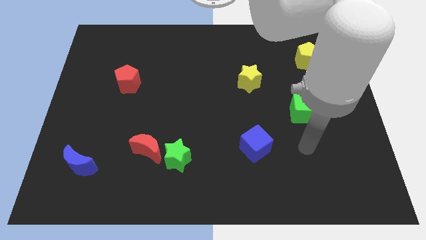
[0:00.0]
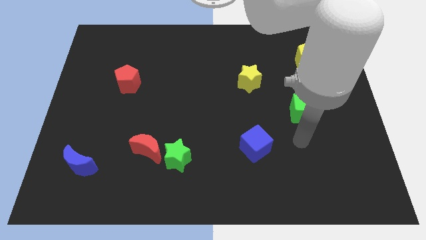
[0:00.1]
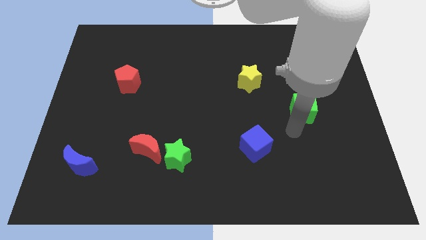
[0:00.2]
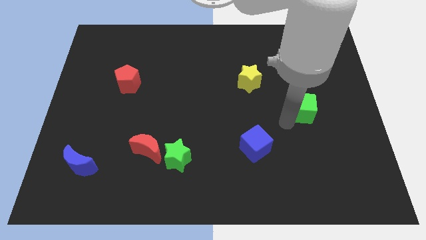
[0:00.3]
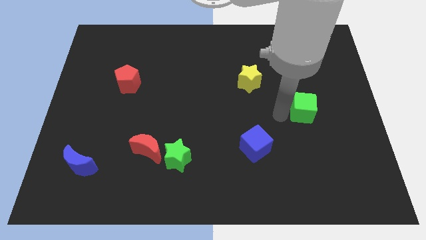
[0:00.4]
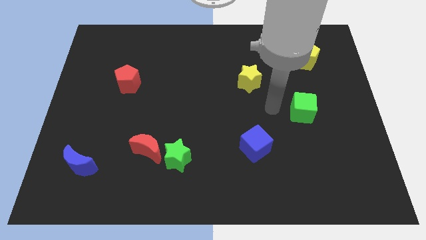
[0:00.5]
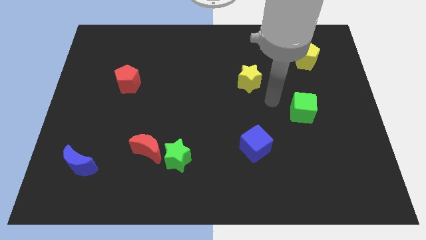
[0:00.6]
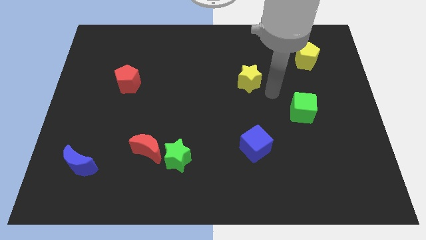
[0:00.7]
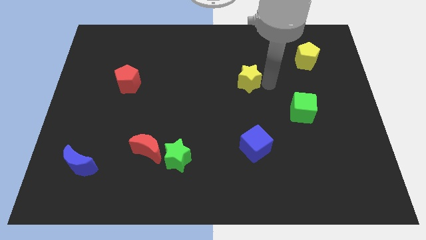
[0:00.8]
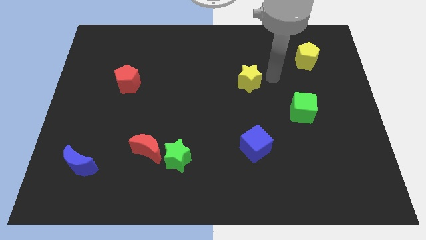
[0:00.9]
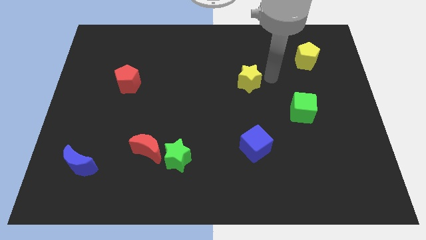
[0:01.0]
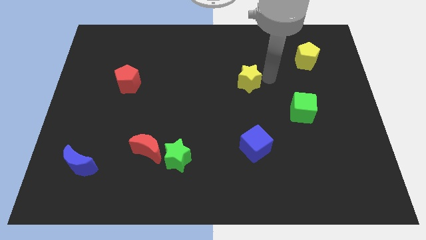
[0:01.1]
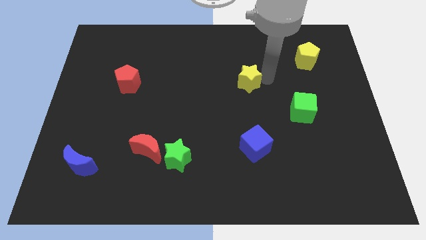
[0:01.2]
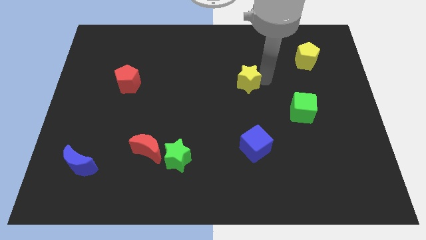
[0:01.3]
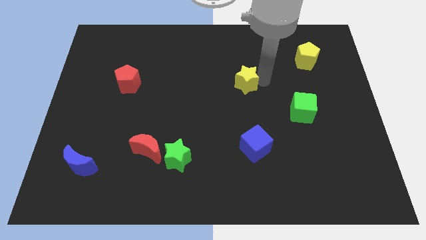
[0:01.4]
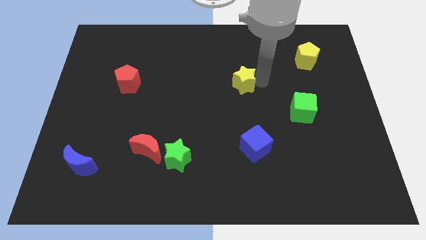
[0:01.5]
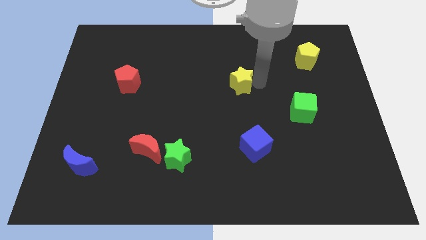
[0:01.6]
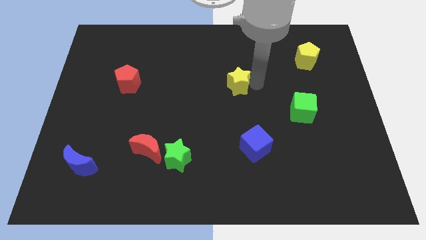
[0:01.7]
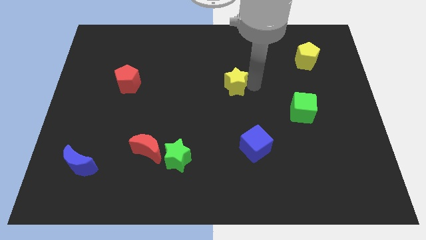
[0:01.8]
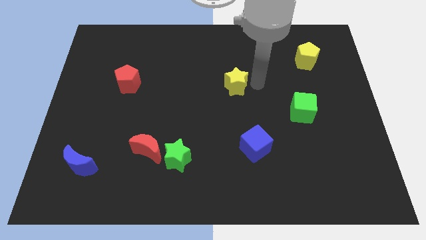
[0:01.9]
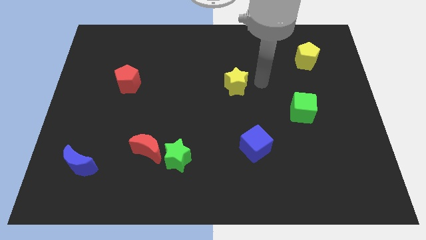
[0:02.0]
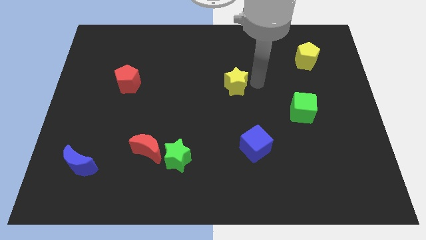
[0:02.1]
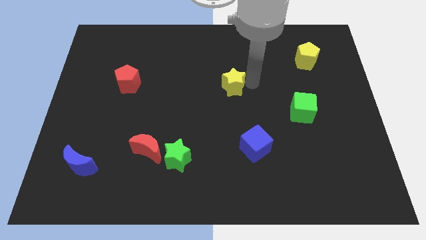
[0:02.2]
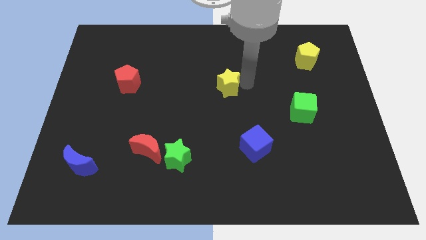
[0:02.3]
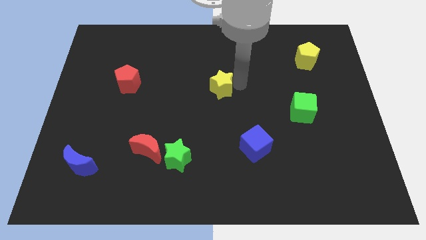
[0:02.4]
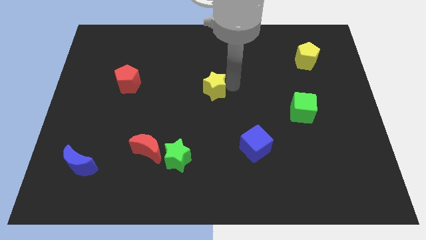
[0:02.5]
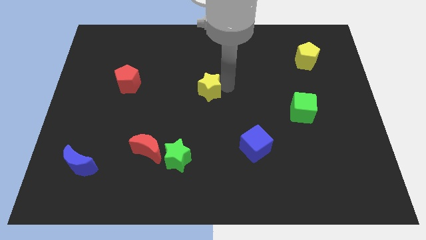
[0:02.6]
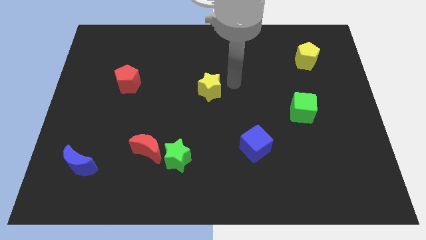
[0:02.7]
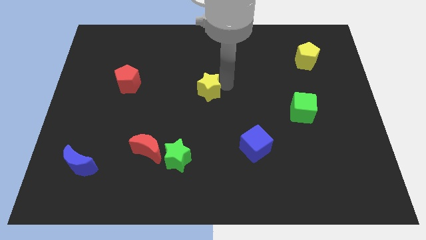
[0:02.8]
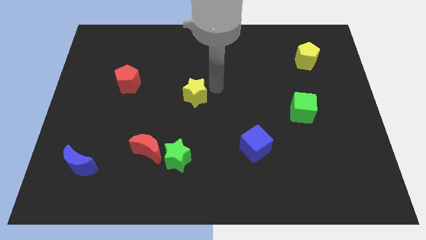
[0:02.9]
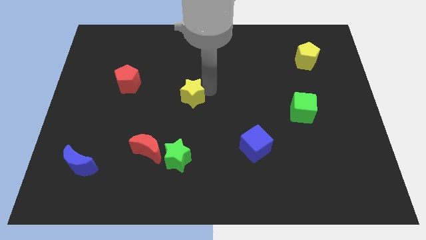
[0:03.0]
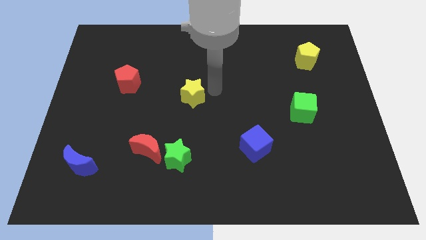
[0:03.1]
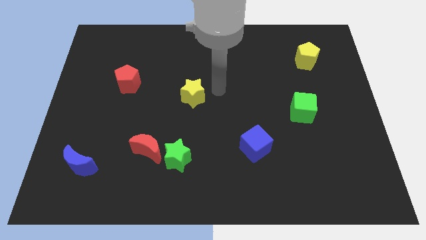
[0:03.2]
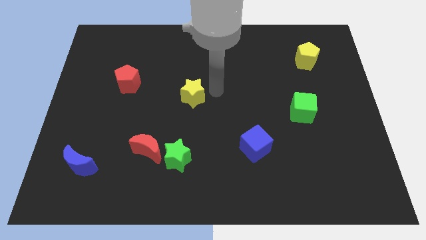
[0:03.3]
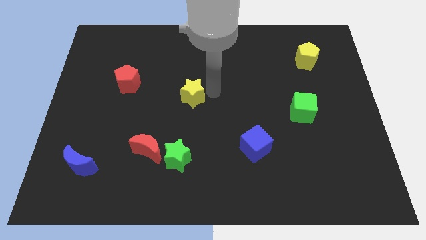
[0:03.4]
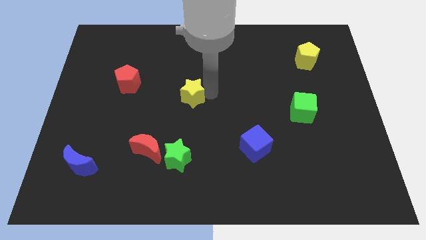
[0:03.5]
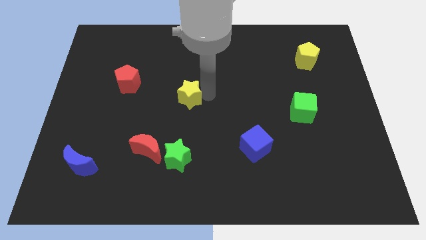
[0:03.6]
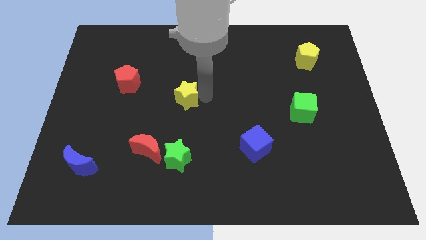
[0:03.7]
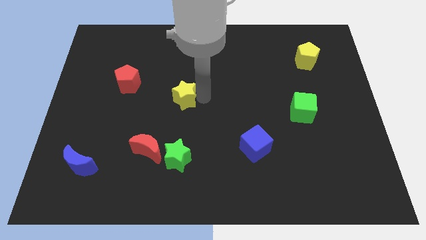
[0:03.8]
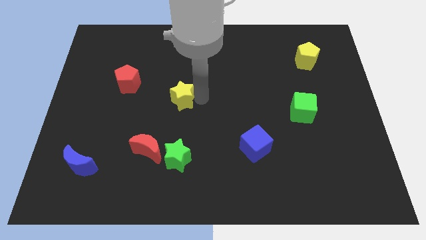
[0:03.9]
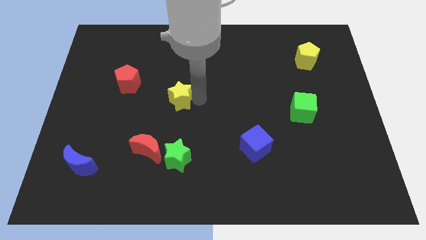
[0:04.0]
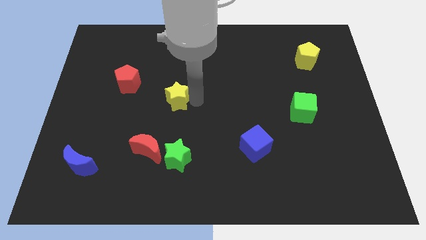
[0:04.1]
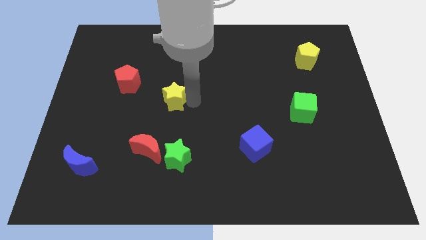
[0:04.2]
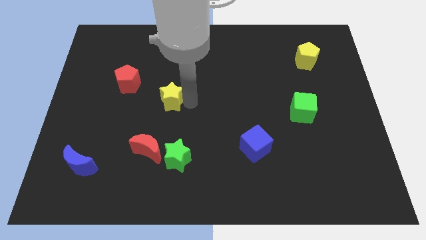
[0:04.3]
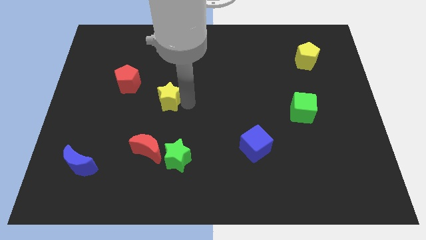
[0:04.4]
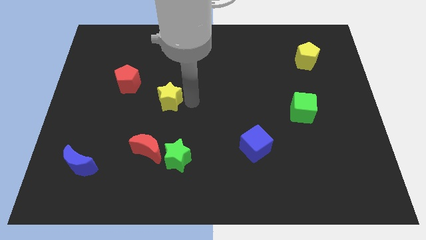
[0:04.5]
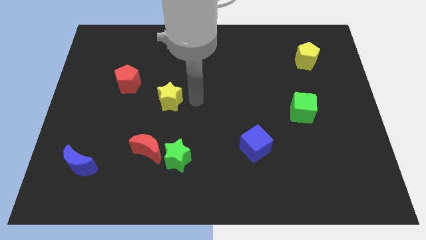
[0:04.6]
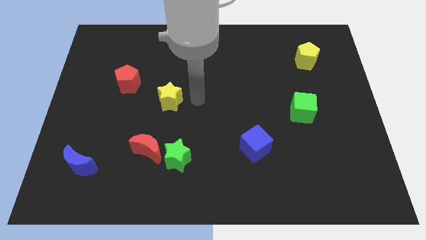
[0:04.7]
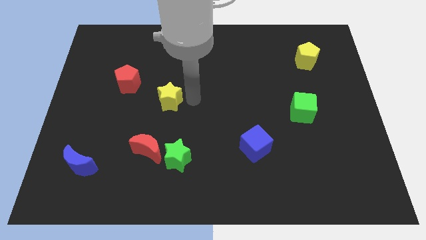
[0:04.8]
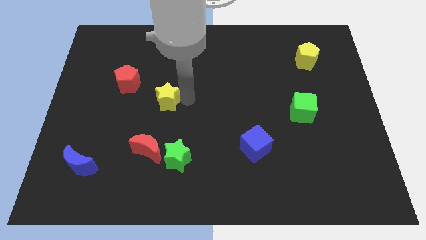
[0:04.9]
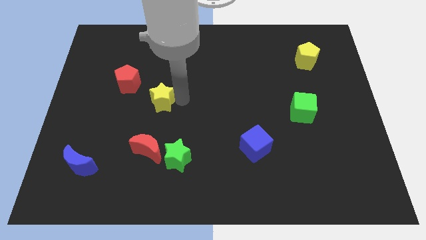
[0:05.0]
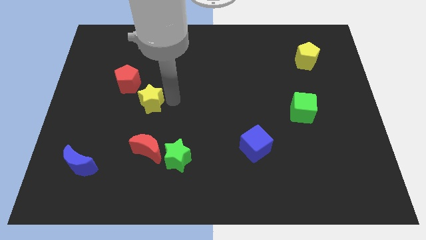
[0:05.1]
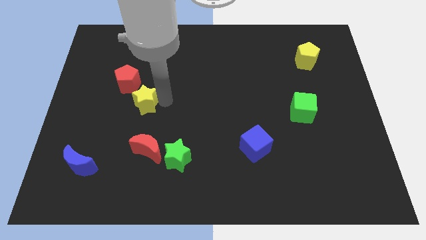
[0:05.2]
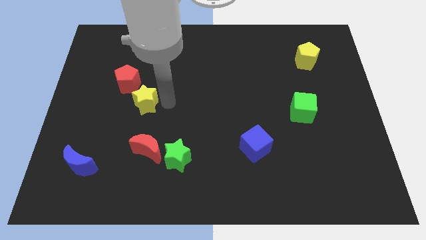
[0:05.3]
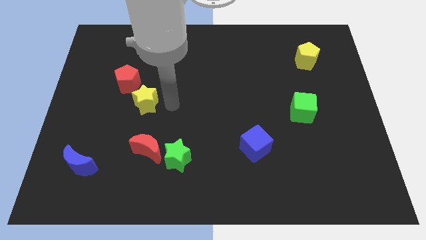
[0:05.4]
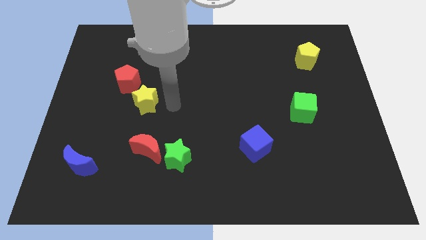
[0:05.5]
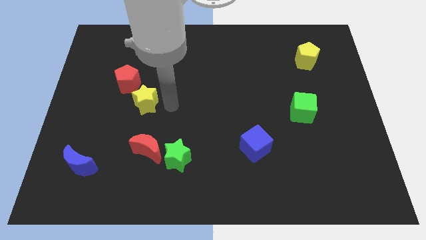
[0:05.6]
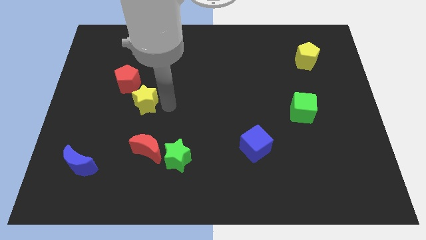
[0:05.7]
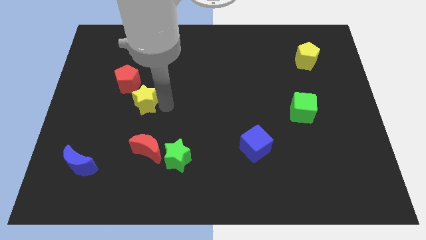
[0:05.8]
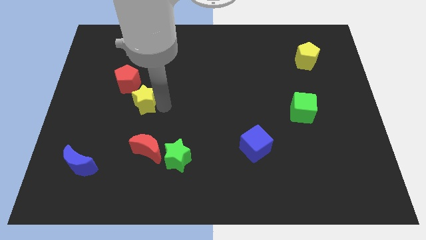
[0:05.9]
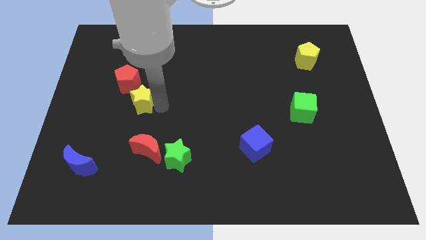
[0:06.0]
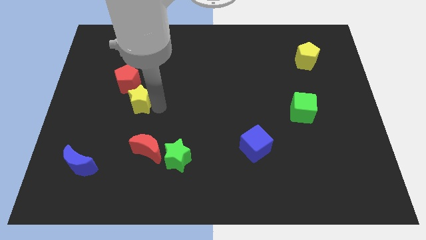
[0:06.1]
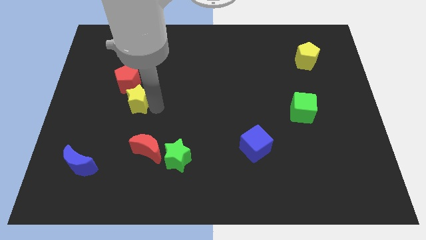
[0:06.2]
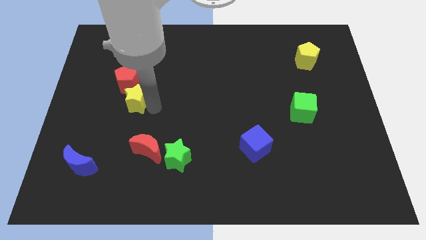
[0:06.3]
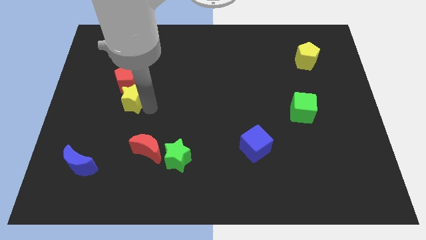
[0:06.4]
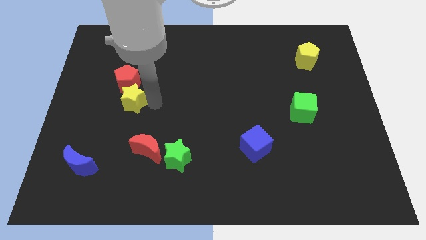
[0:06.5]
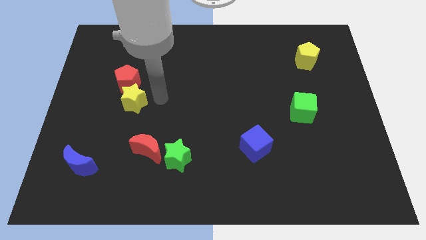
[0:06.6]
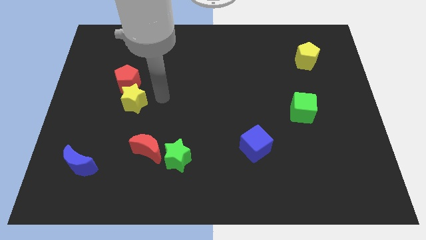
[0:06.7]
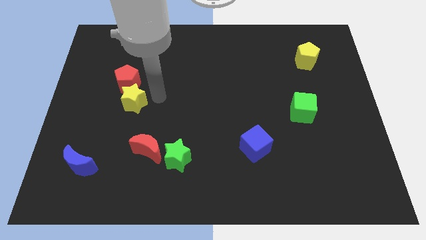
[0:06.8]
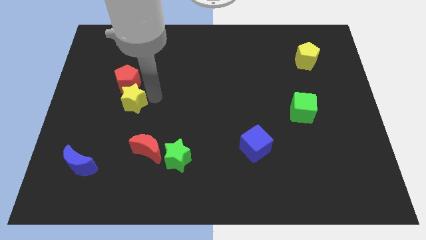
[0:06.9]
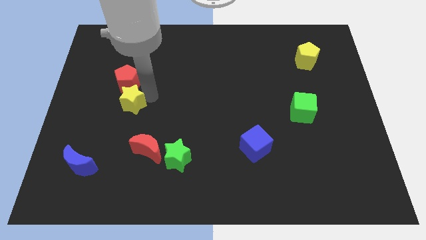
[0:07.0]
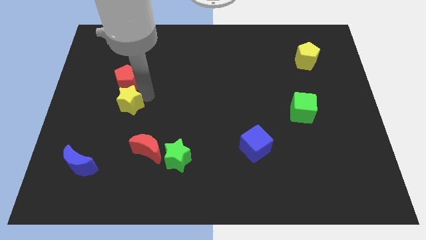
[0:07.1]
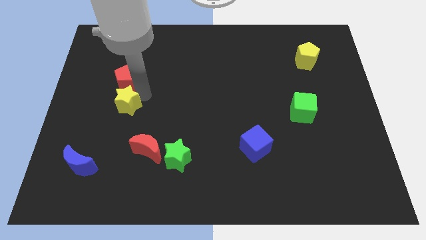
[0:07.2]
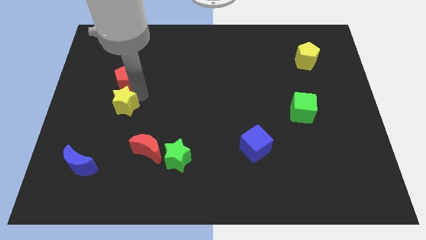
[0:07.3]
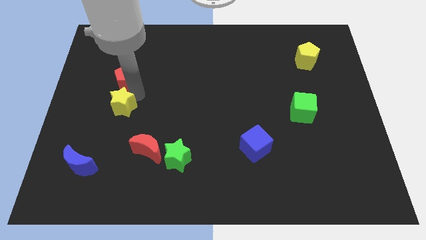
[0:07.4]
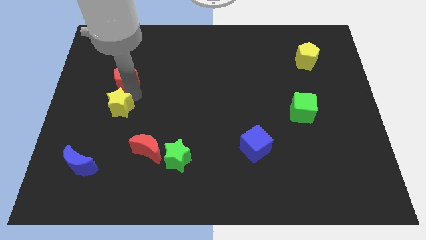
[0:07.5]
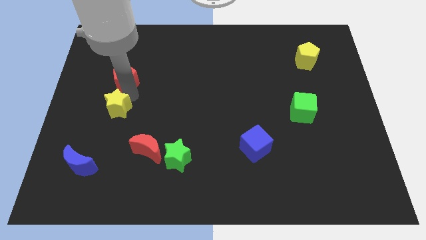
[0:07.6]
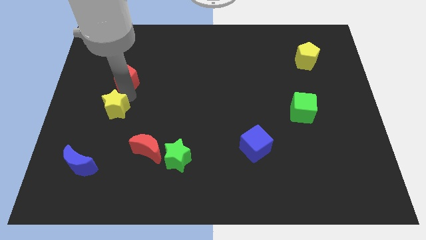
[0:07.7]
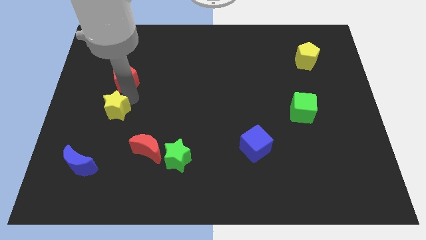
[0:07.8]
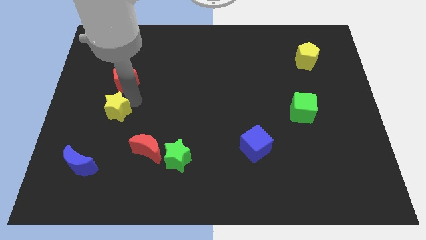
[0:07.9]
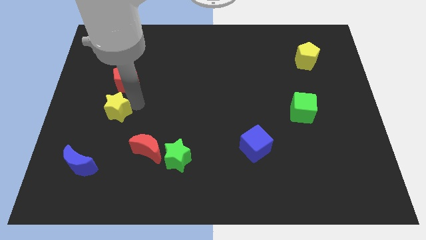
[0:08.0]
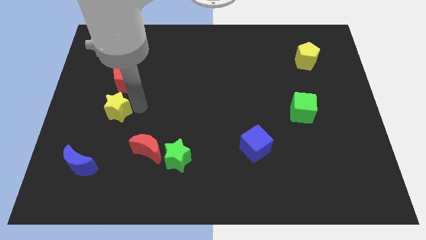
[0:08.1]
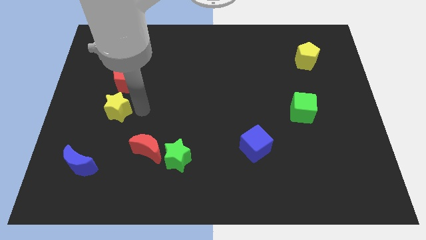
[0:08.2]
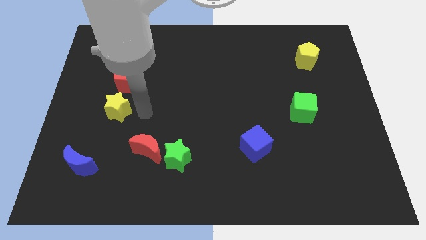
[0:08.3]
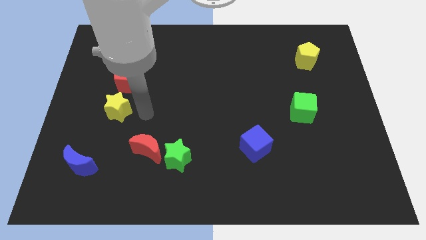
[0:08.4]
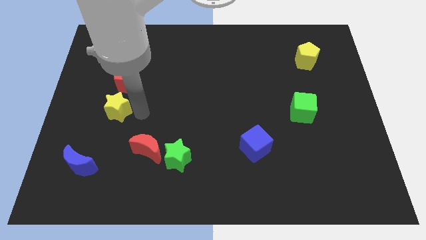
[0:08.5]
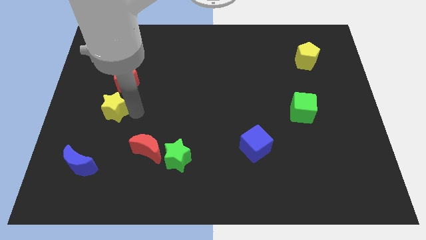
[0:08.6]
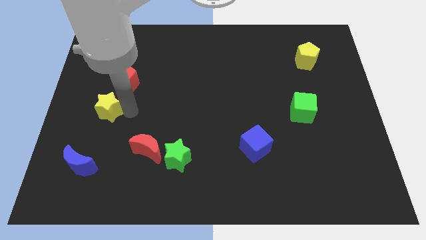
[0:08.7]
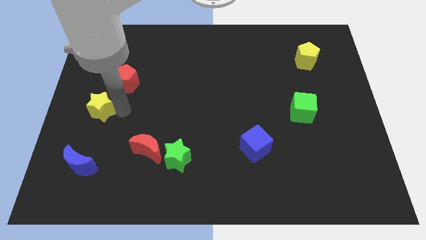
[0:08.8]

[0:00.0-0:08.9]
move the yellow star to the left side of the board
